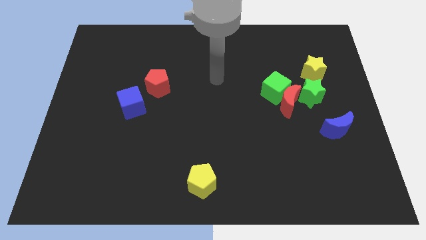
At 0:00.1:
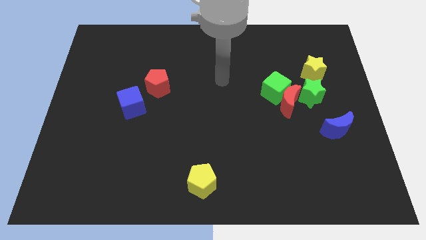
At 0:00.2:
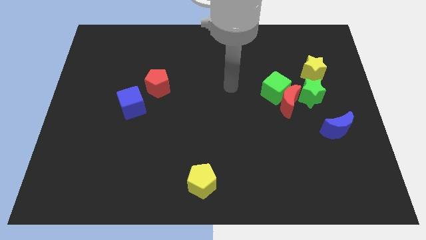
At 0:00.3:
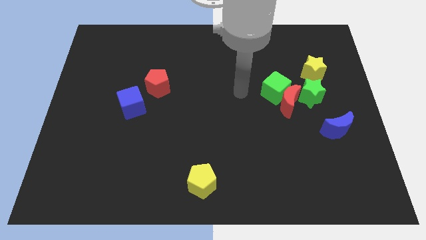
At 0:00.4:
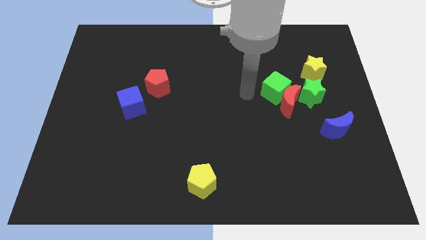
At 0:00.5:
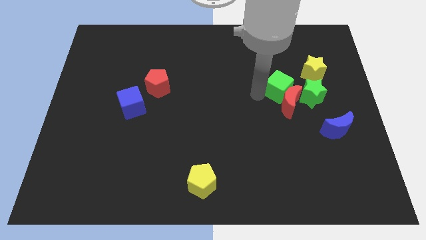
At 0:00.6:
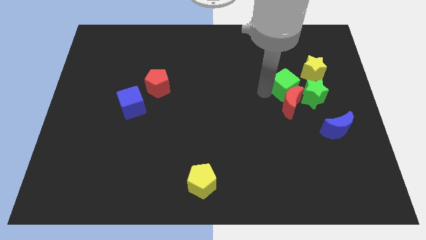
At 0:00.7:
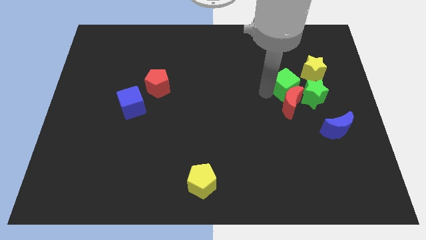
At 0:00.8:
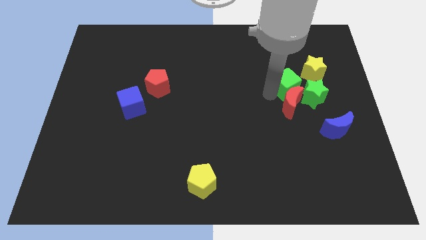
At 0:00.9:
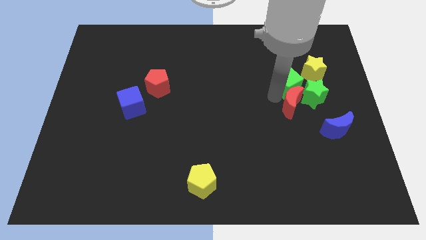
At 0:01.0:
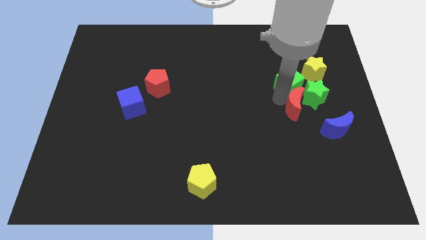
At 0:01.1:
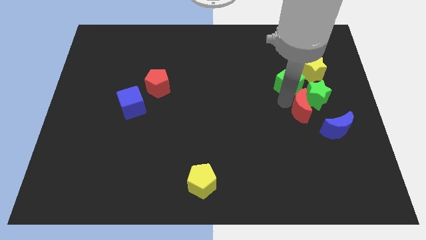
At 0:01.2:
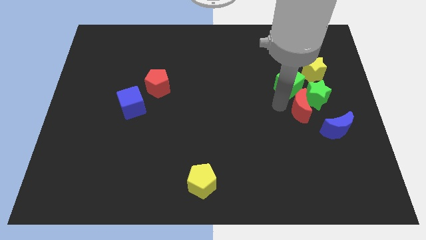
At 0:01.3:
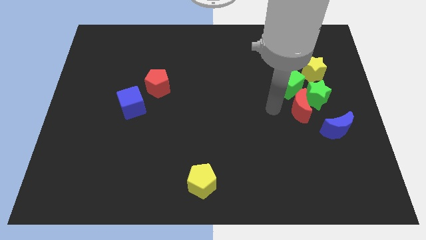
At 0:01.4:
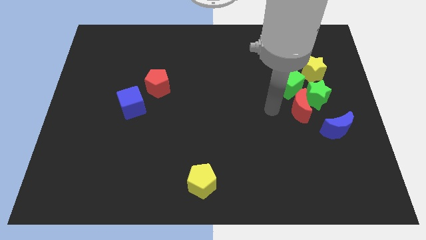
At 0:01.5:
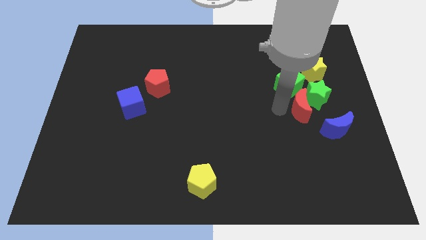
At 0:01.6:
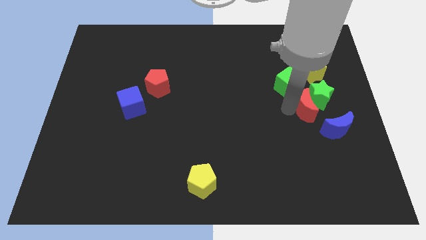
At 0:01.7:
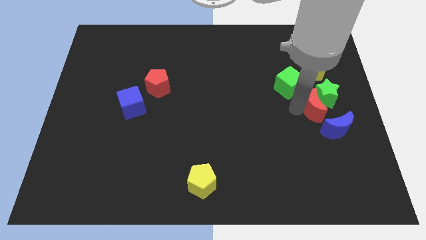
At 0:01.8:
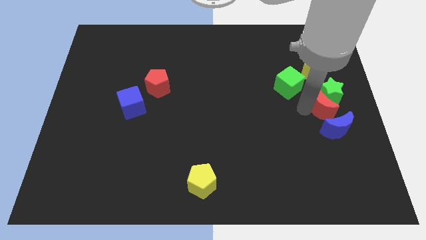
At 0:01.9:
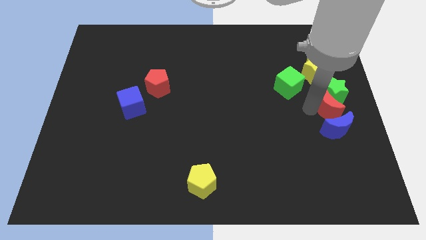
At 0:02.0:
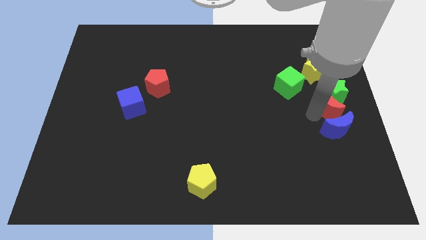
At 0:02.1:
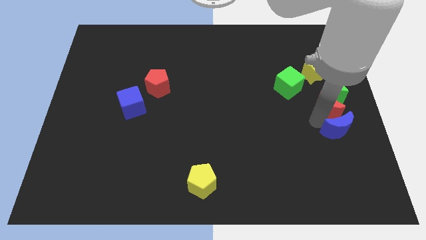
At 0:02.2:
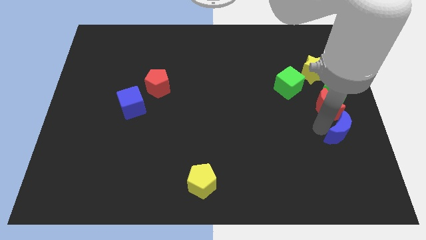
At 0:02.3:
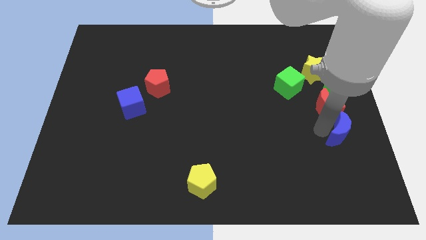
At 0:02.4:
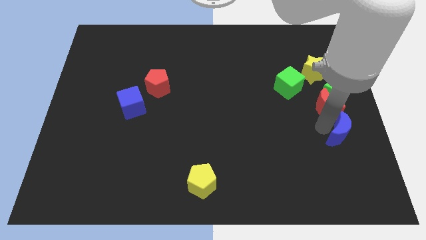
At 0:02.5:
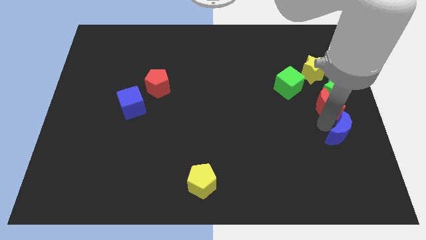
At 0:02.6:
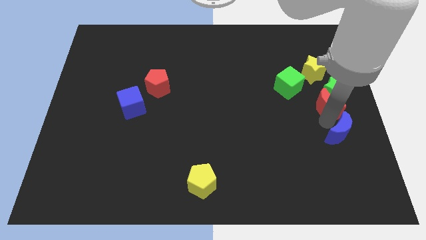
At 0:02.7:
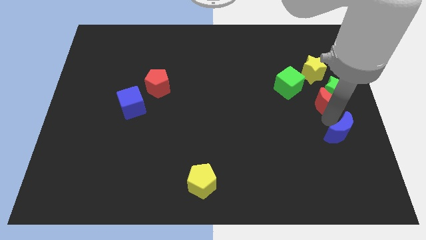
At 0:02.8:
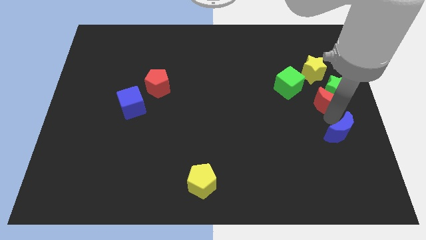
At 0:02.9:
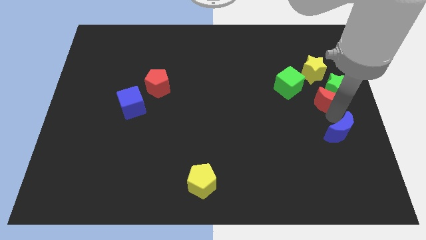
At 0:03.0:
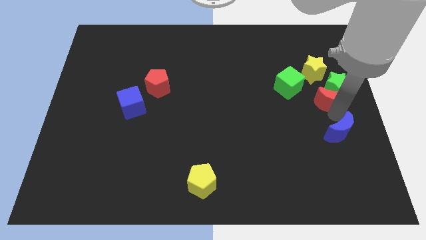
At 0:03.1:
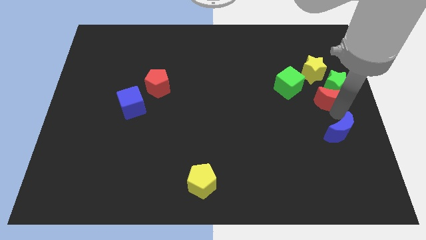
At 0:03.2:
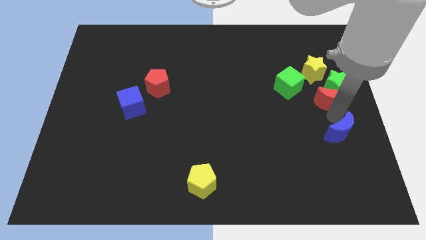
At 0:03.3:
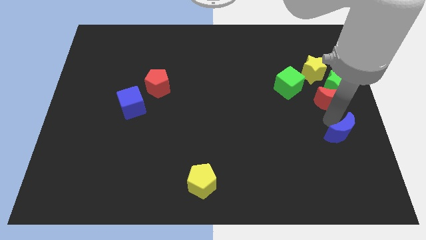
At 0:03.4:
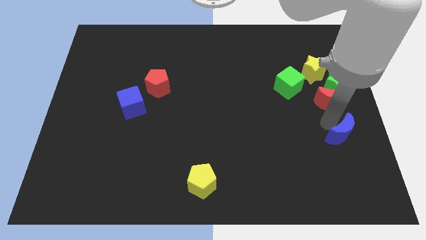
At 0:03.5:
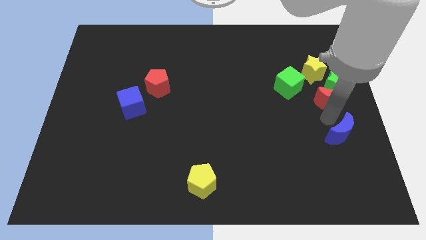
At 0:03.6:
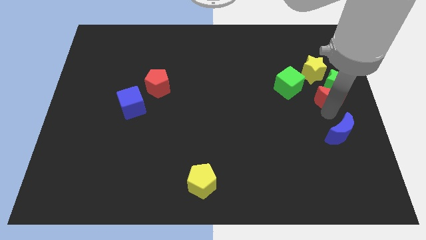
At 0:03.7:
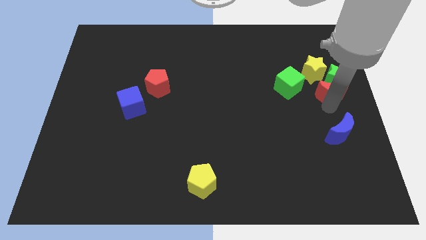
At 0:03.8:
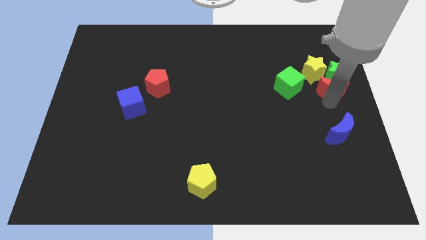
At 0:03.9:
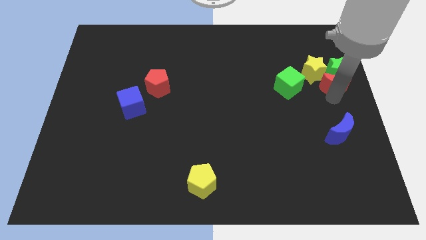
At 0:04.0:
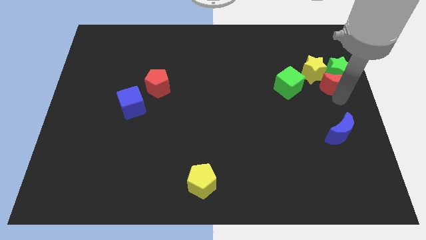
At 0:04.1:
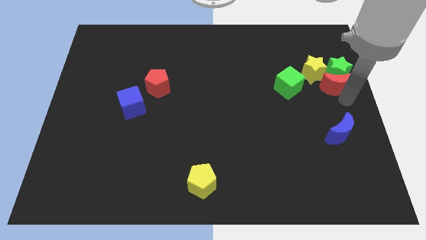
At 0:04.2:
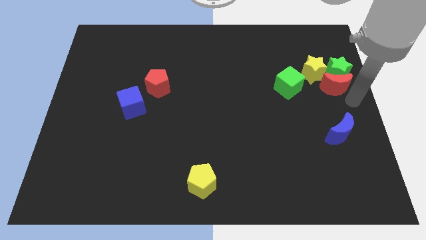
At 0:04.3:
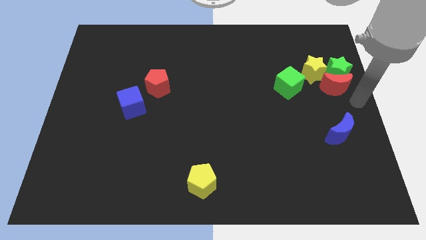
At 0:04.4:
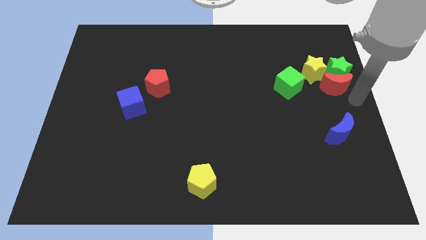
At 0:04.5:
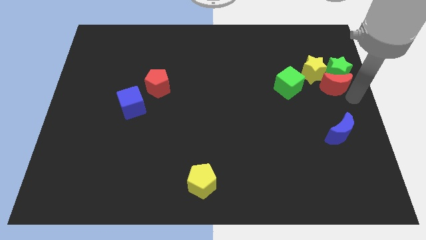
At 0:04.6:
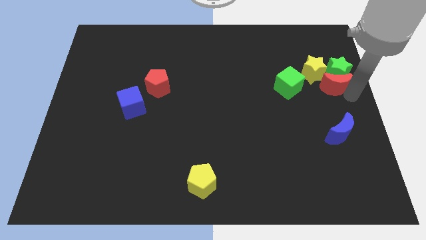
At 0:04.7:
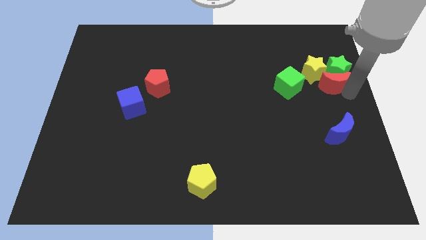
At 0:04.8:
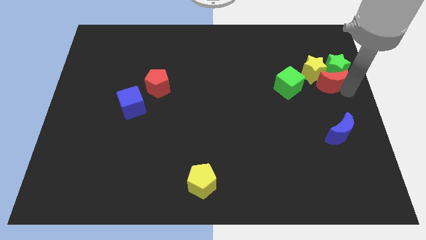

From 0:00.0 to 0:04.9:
move the red moon towards the yellow star

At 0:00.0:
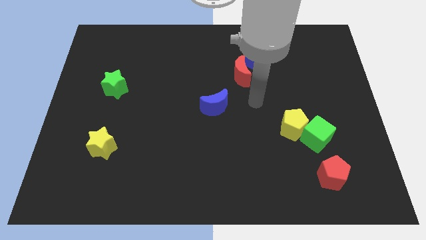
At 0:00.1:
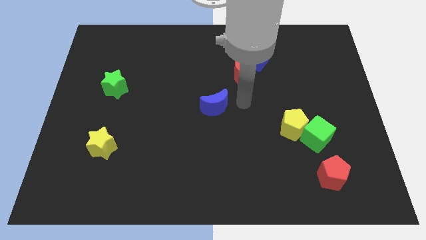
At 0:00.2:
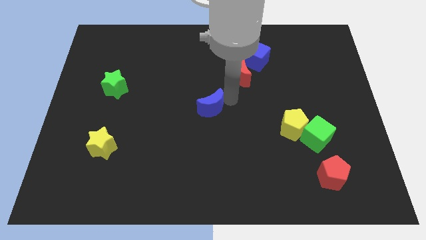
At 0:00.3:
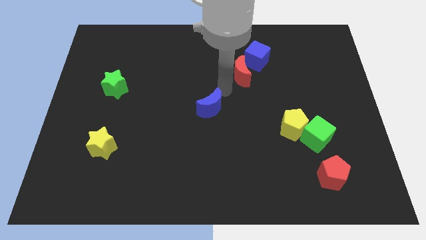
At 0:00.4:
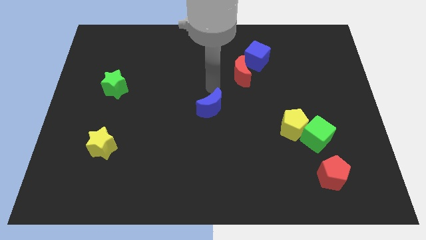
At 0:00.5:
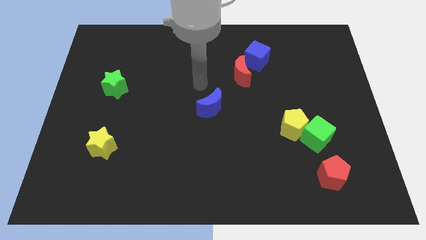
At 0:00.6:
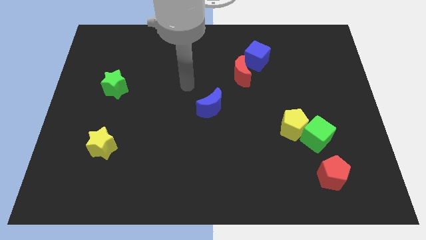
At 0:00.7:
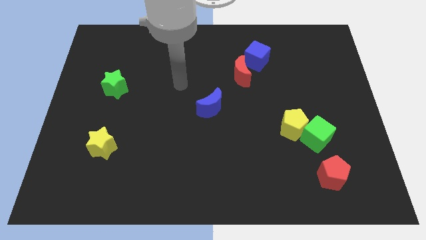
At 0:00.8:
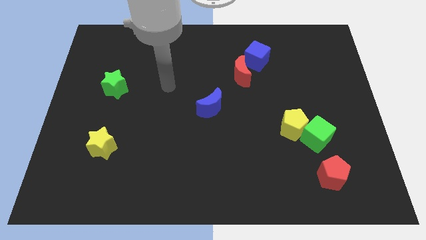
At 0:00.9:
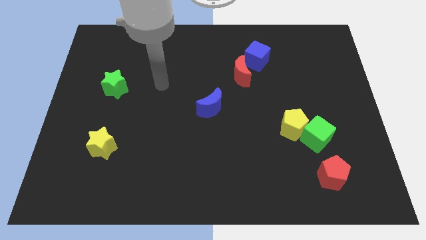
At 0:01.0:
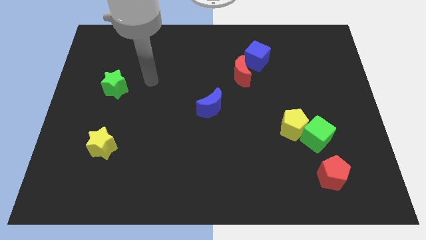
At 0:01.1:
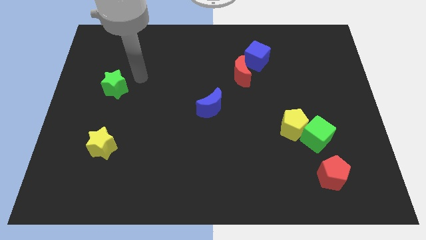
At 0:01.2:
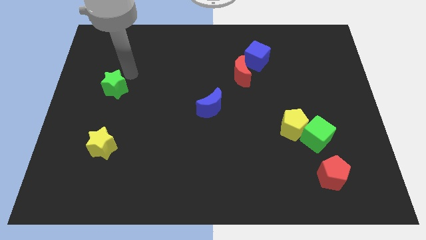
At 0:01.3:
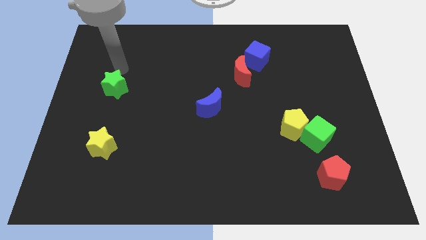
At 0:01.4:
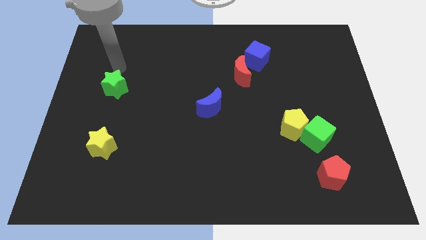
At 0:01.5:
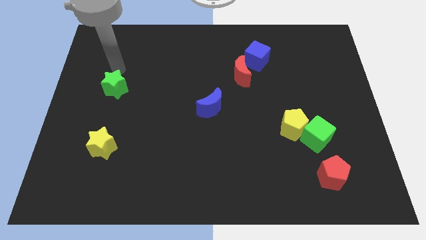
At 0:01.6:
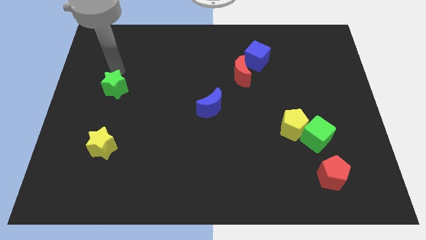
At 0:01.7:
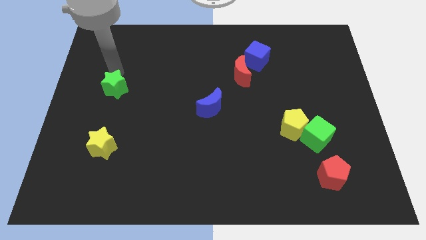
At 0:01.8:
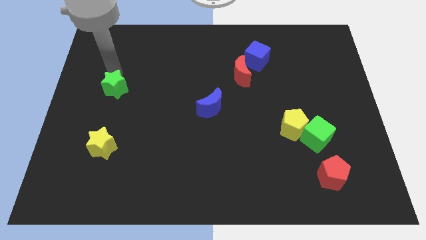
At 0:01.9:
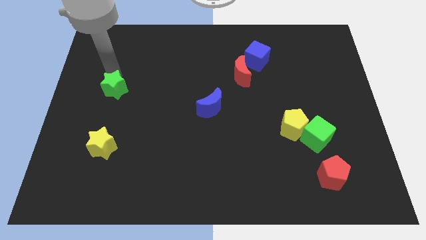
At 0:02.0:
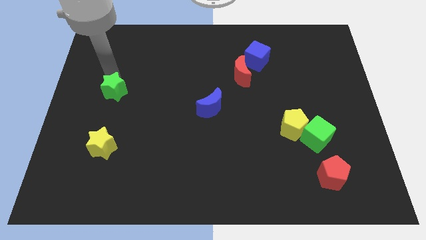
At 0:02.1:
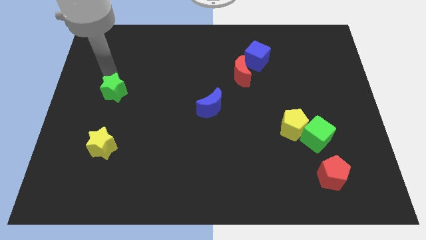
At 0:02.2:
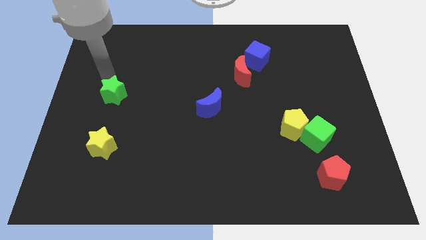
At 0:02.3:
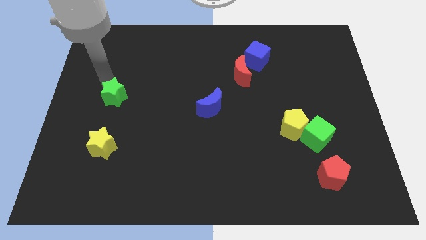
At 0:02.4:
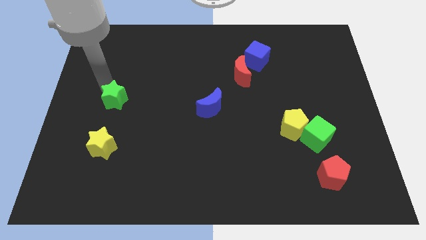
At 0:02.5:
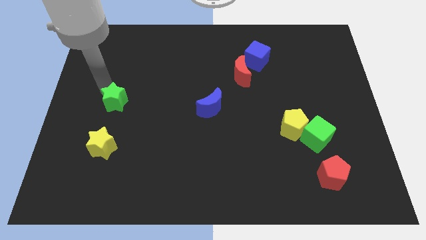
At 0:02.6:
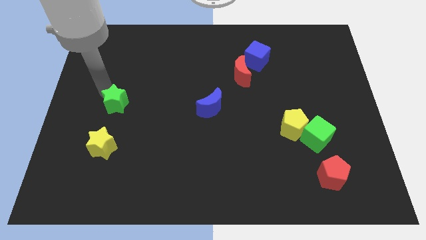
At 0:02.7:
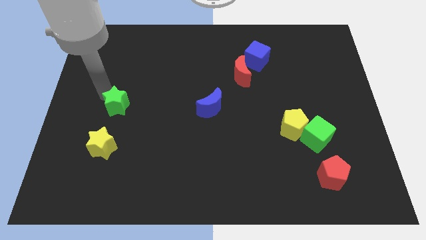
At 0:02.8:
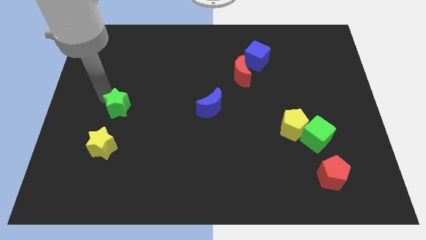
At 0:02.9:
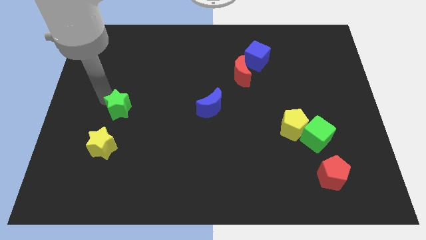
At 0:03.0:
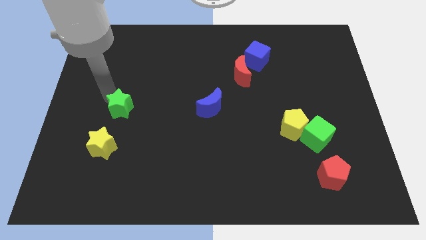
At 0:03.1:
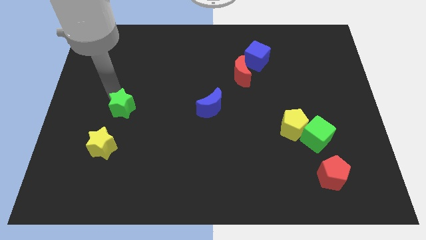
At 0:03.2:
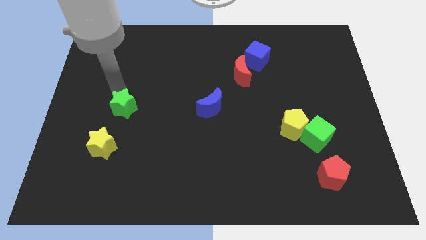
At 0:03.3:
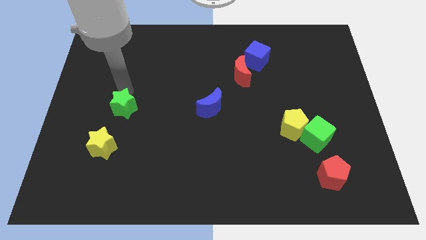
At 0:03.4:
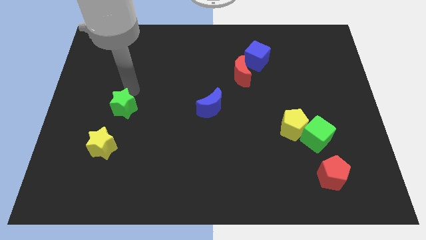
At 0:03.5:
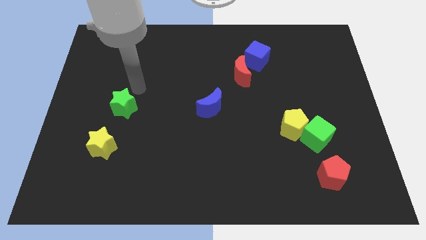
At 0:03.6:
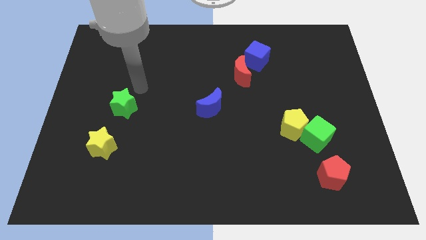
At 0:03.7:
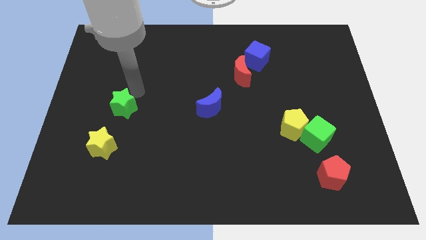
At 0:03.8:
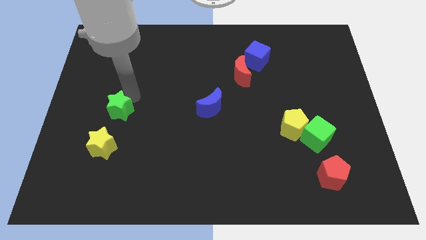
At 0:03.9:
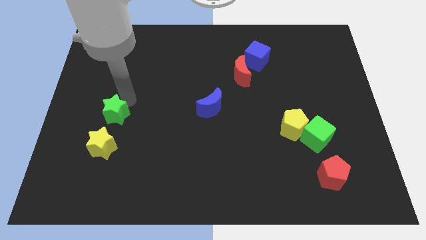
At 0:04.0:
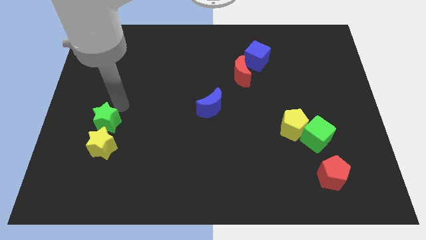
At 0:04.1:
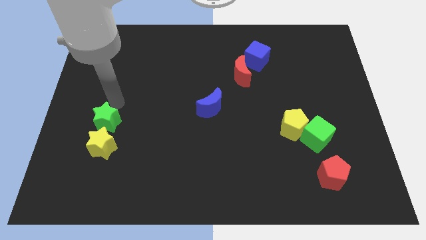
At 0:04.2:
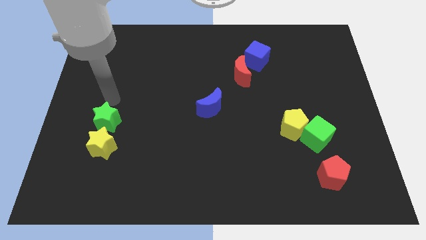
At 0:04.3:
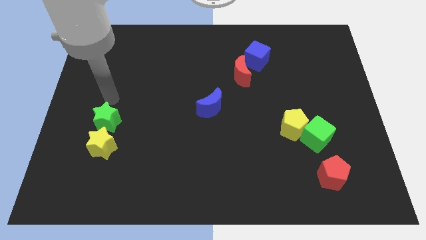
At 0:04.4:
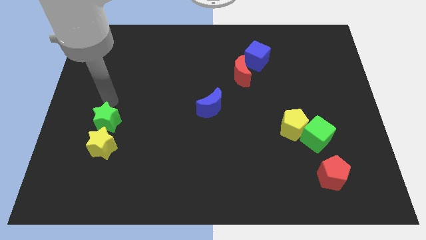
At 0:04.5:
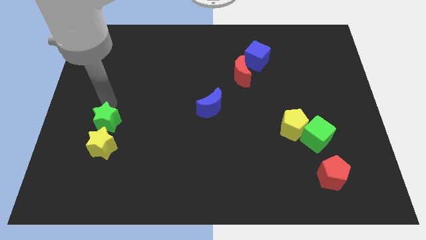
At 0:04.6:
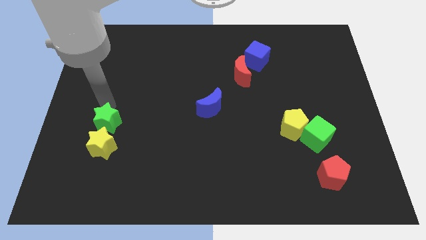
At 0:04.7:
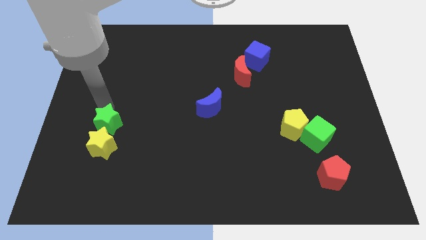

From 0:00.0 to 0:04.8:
put the green star towards the yellow star
